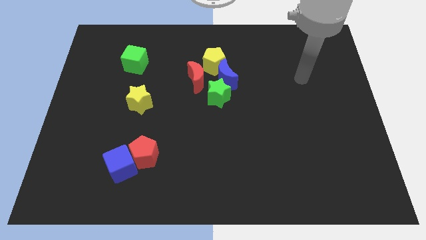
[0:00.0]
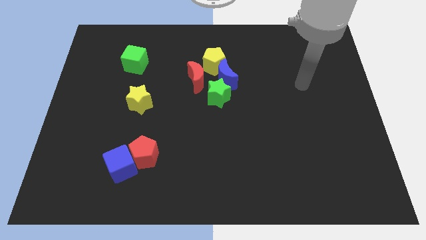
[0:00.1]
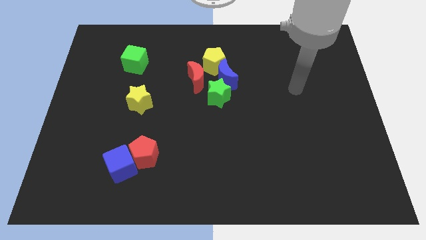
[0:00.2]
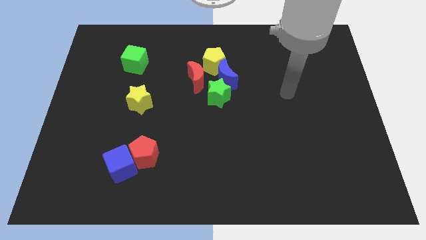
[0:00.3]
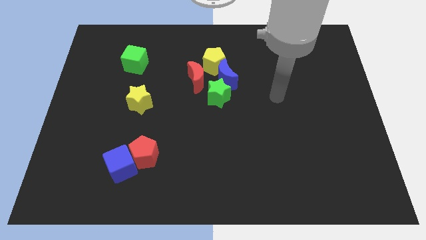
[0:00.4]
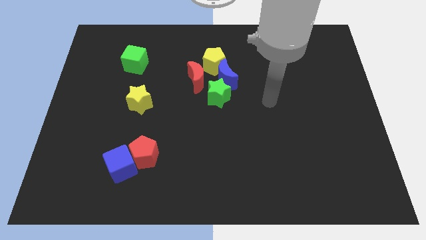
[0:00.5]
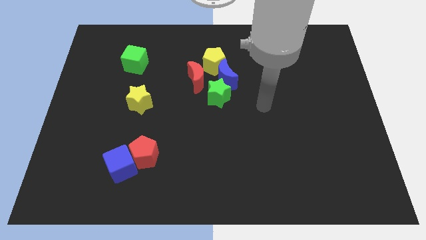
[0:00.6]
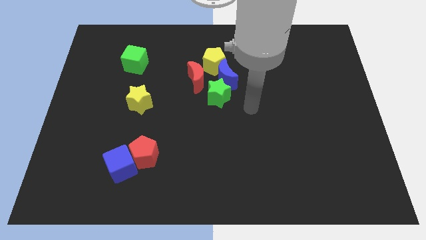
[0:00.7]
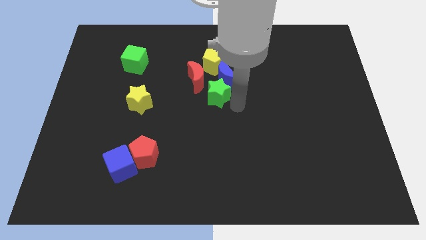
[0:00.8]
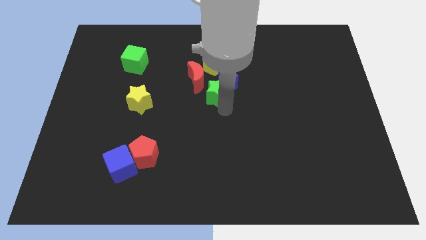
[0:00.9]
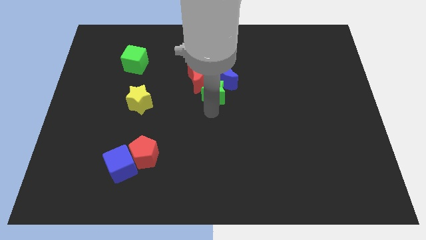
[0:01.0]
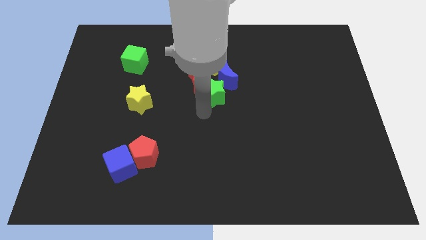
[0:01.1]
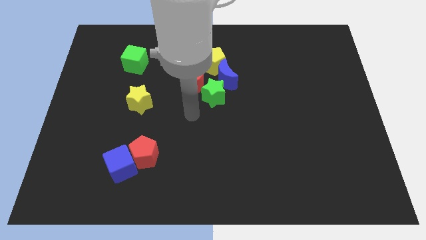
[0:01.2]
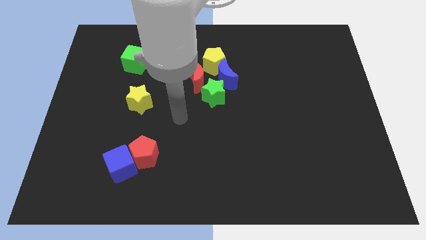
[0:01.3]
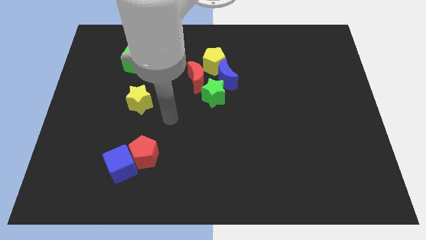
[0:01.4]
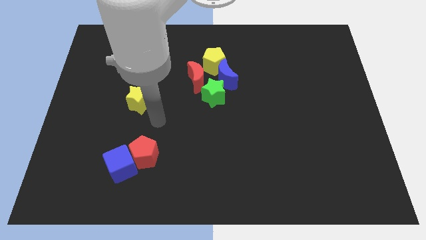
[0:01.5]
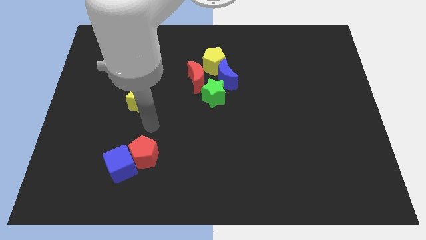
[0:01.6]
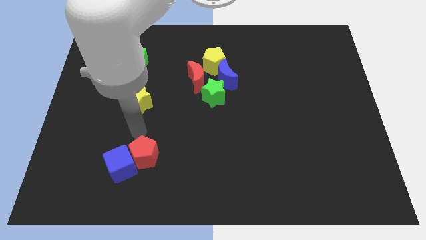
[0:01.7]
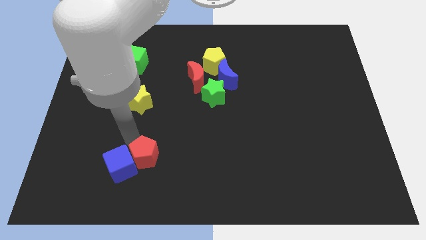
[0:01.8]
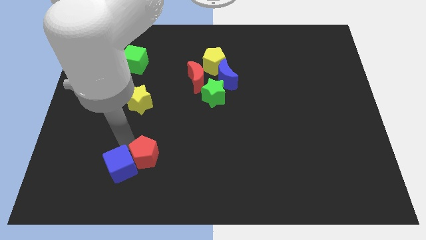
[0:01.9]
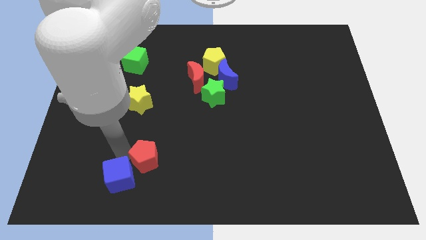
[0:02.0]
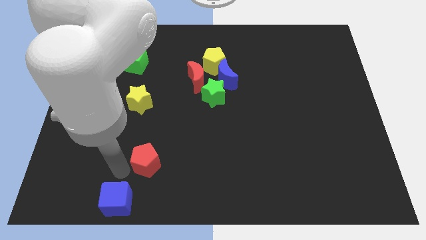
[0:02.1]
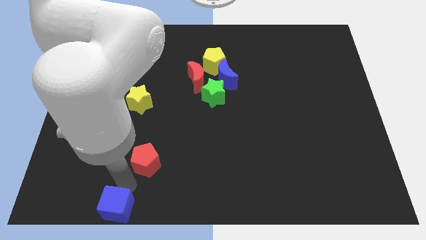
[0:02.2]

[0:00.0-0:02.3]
pull the red pentagon apart from the blue cube

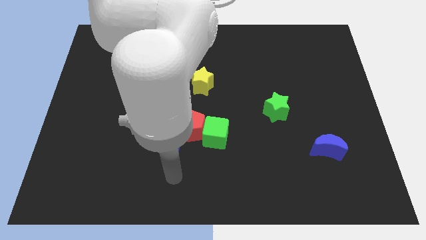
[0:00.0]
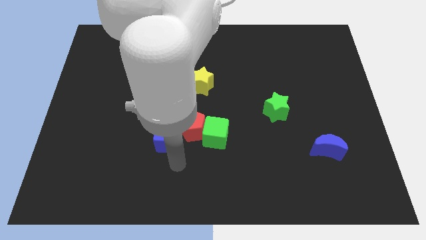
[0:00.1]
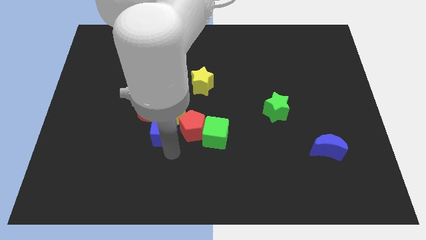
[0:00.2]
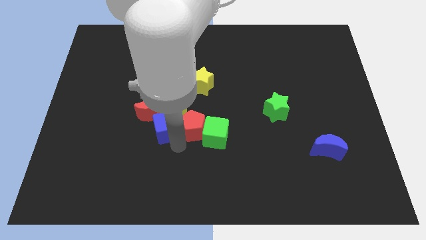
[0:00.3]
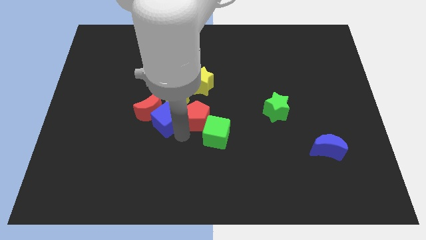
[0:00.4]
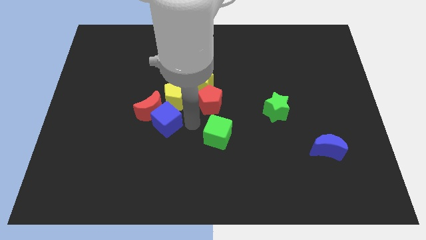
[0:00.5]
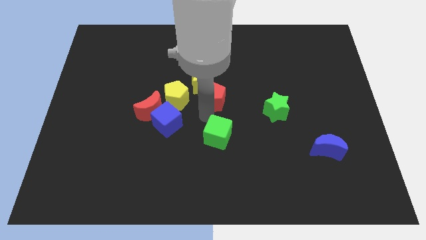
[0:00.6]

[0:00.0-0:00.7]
pull the green cube apart from the red pentagon

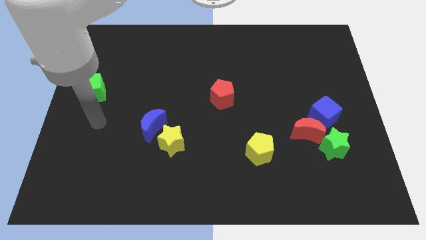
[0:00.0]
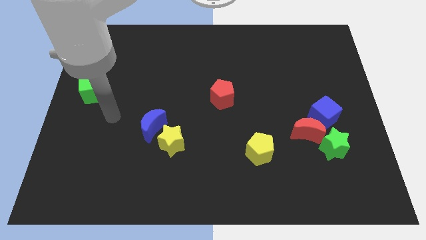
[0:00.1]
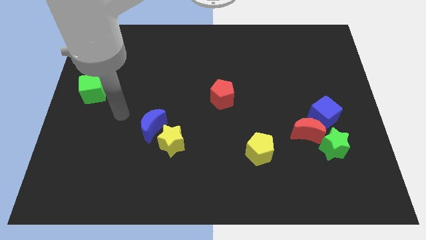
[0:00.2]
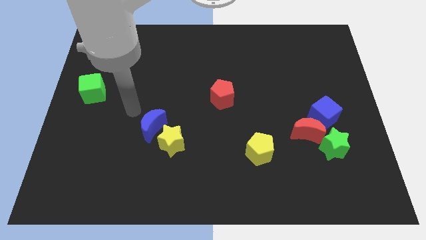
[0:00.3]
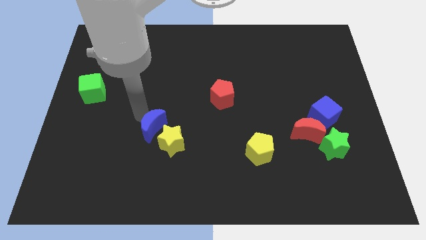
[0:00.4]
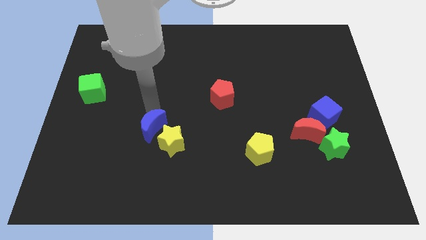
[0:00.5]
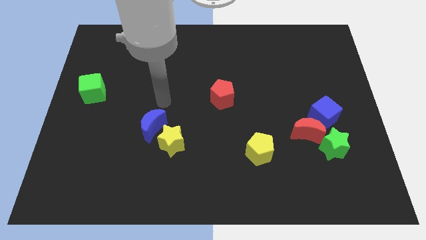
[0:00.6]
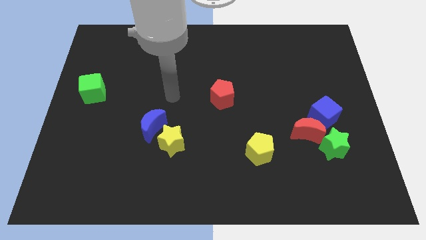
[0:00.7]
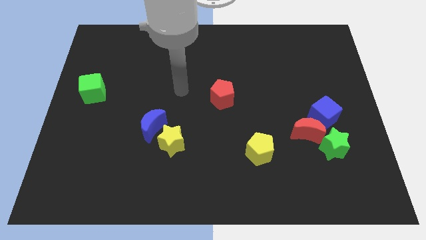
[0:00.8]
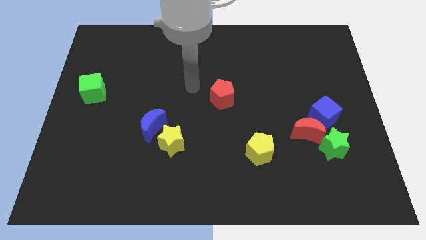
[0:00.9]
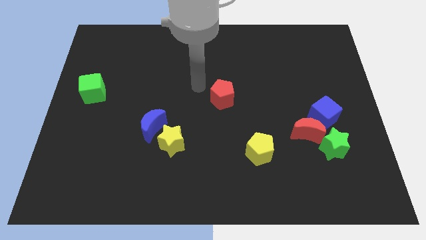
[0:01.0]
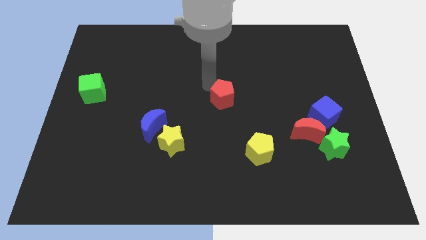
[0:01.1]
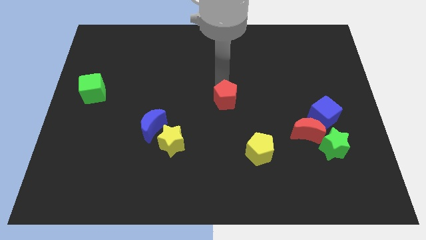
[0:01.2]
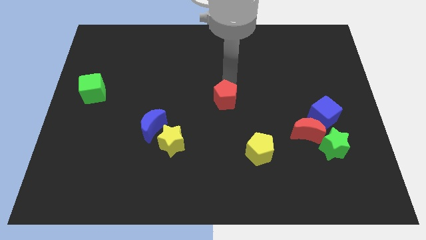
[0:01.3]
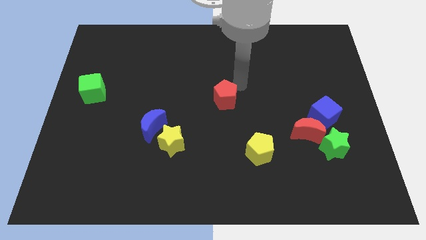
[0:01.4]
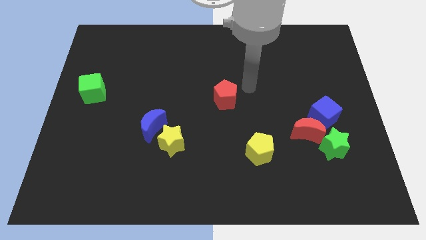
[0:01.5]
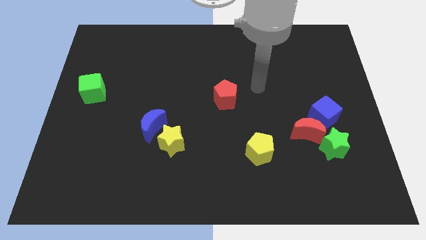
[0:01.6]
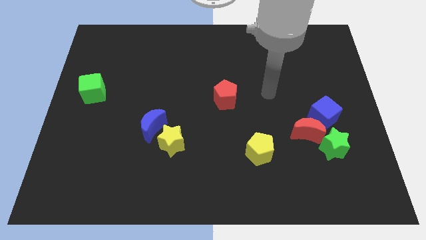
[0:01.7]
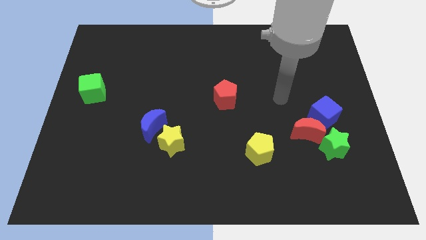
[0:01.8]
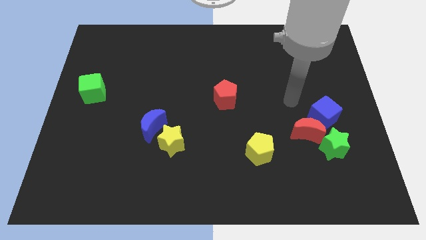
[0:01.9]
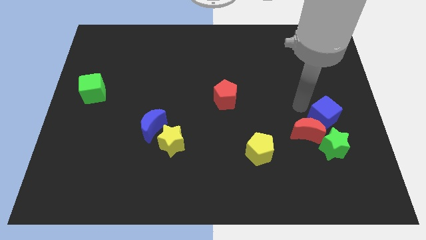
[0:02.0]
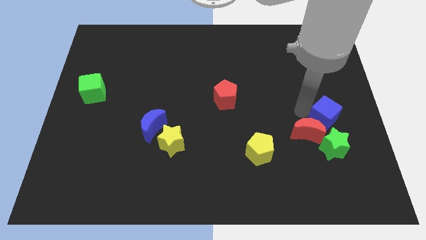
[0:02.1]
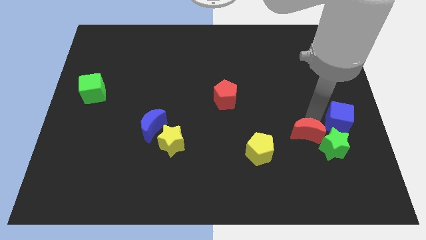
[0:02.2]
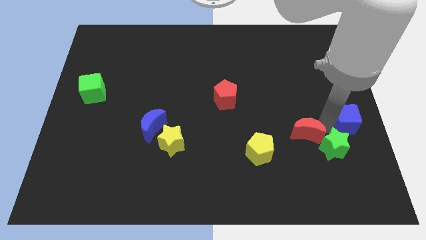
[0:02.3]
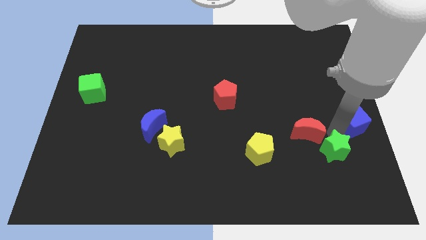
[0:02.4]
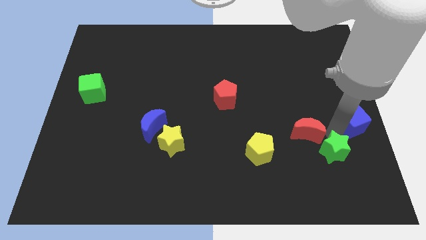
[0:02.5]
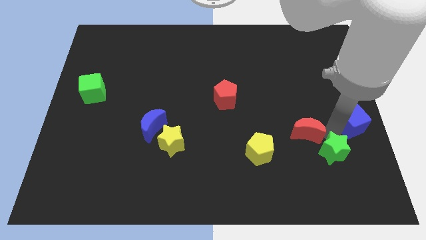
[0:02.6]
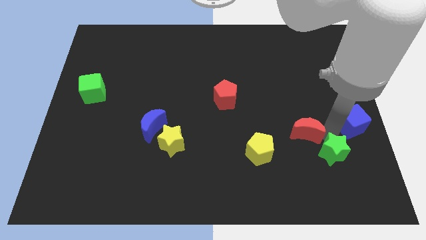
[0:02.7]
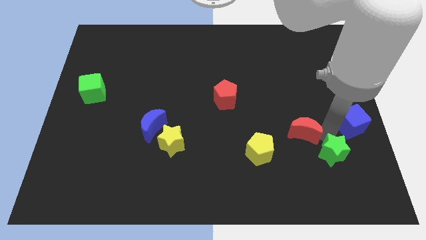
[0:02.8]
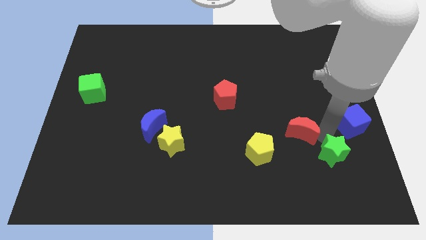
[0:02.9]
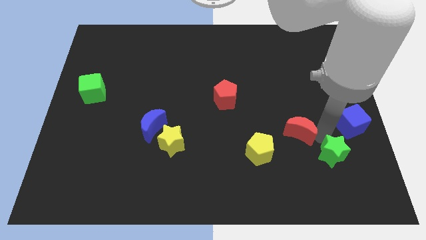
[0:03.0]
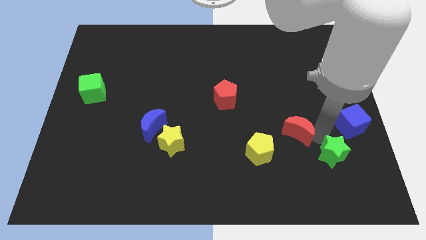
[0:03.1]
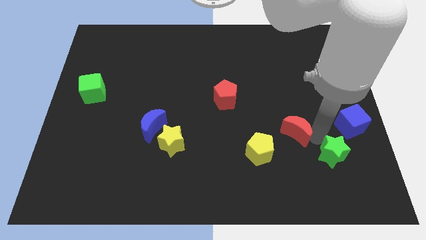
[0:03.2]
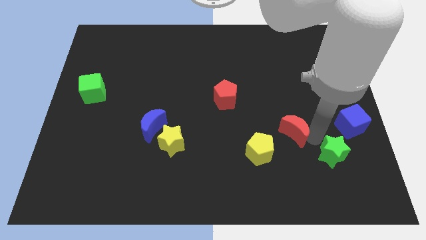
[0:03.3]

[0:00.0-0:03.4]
move the red moon away from the green star and blue cube

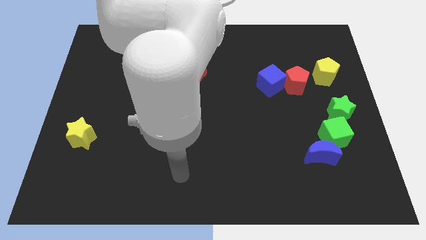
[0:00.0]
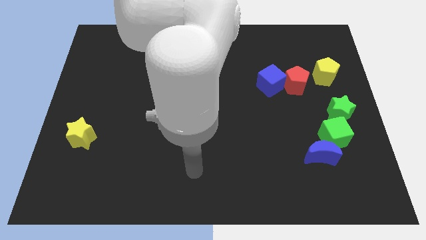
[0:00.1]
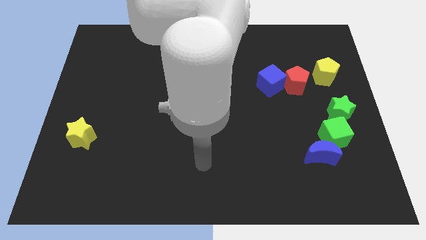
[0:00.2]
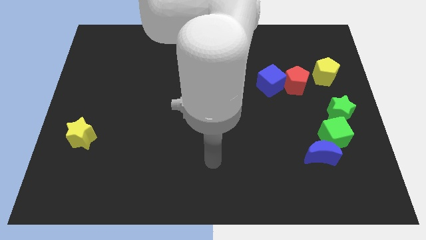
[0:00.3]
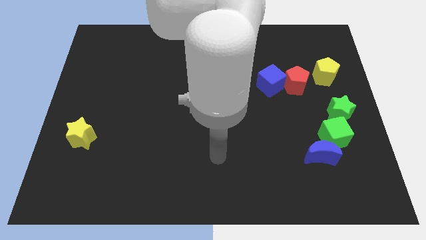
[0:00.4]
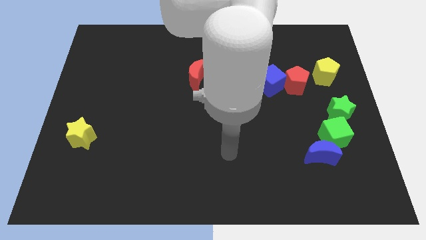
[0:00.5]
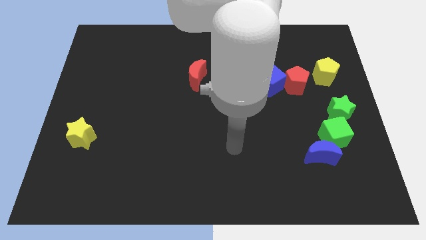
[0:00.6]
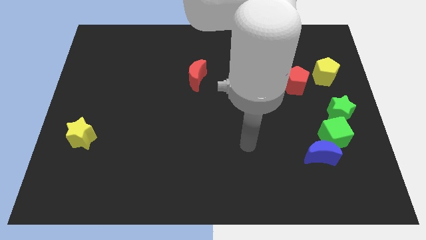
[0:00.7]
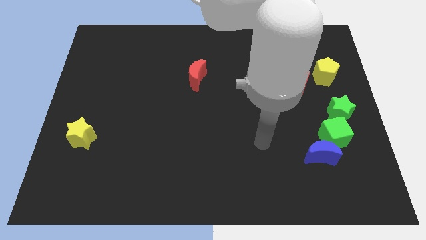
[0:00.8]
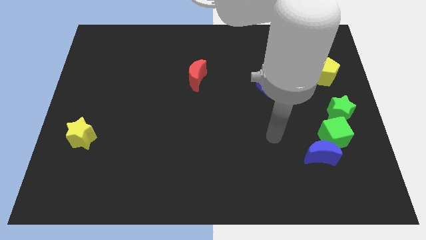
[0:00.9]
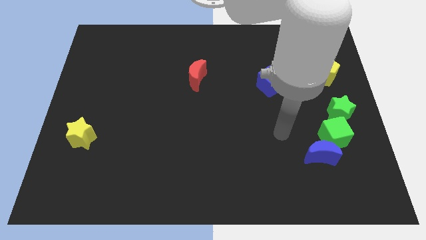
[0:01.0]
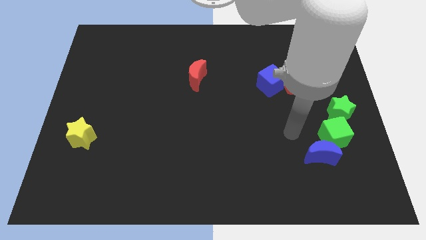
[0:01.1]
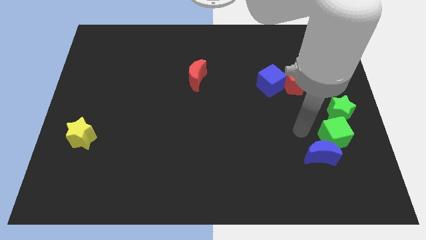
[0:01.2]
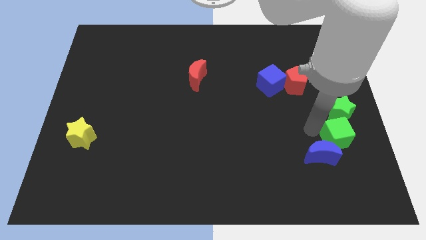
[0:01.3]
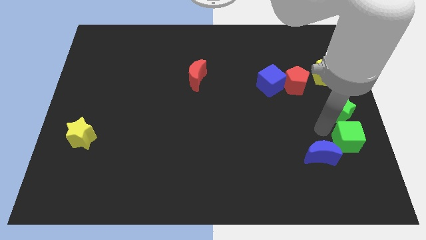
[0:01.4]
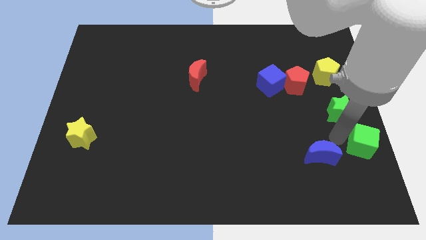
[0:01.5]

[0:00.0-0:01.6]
pull the blue moon apart from the green cube

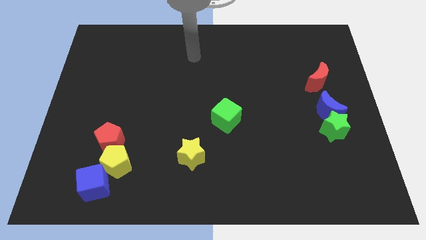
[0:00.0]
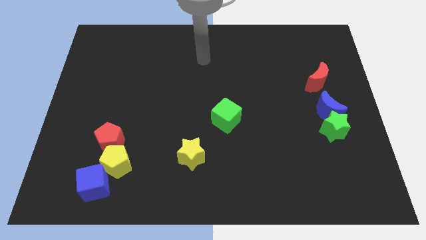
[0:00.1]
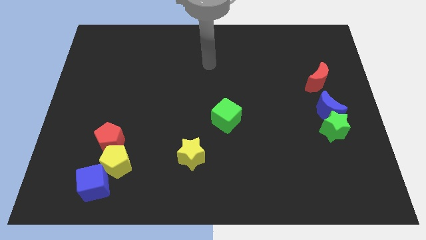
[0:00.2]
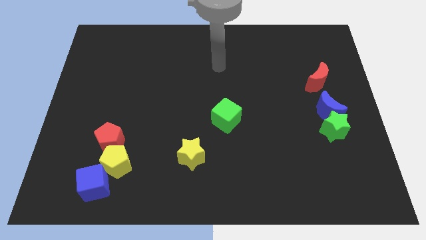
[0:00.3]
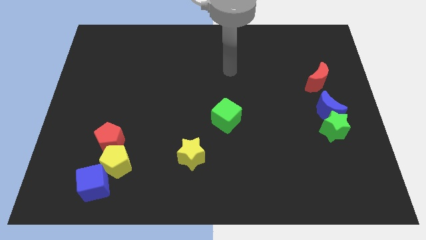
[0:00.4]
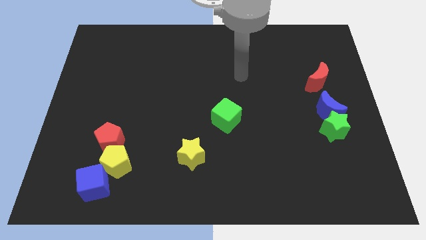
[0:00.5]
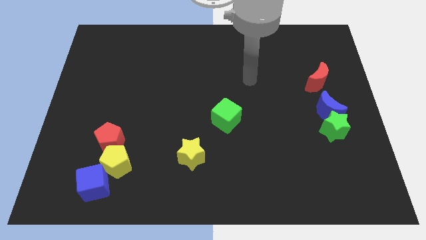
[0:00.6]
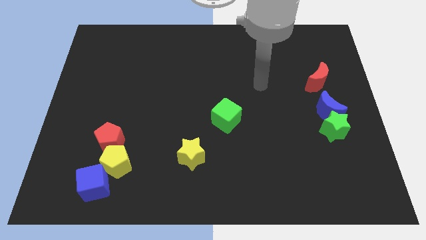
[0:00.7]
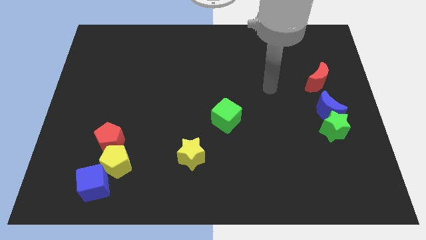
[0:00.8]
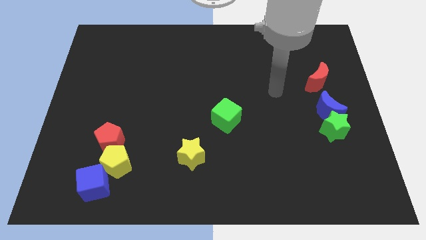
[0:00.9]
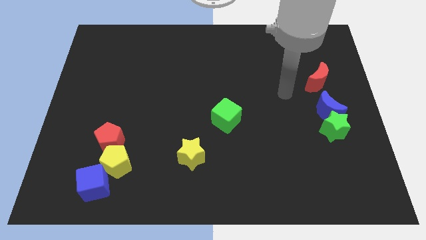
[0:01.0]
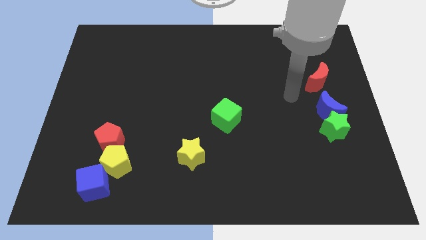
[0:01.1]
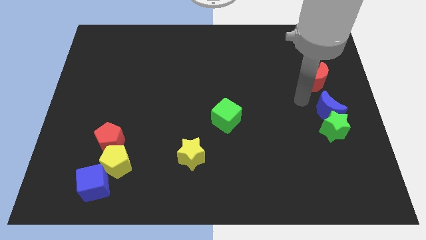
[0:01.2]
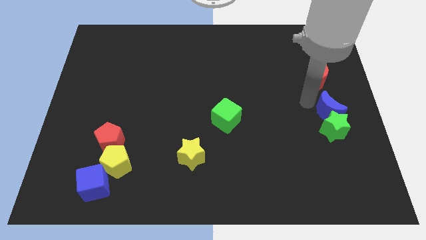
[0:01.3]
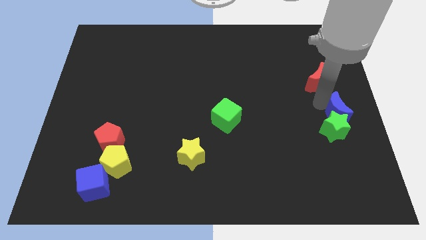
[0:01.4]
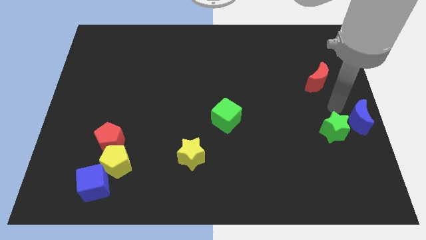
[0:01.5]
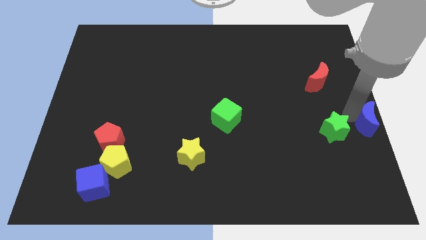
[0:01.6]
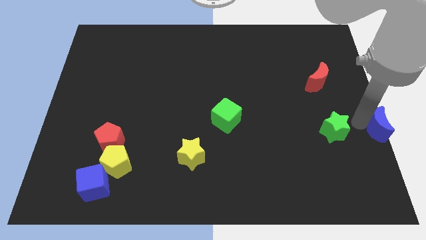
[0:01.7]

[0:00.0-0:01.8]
separate the green star from the blue moon
